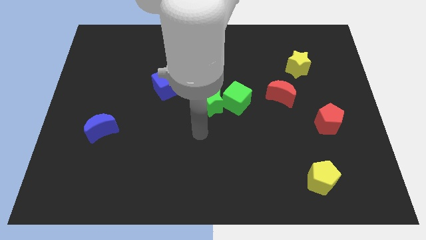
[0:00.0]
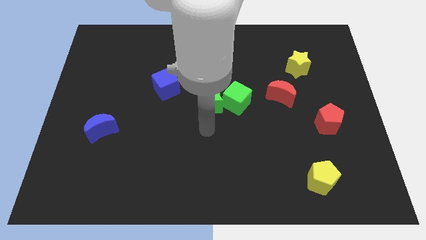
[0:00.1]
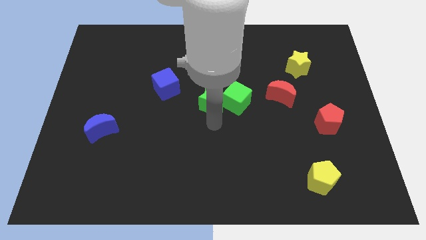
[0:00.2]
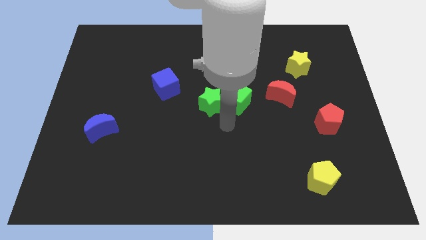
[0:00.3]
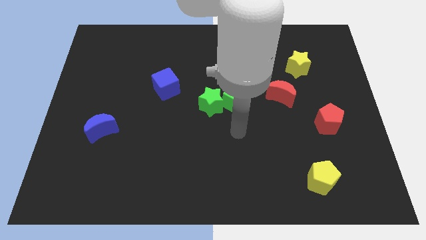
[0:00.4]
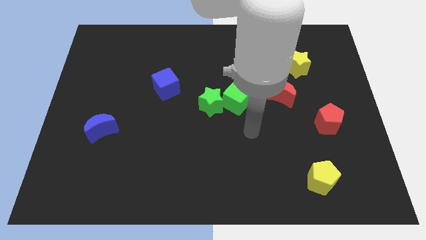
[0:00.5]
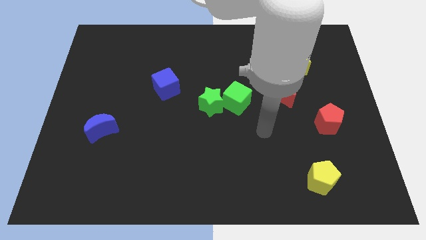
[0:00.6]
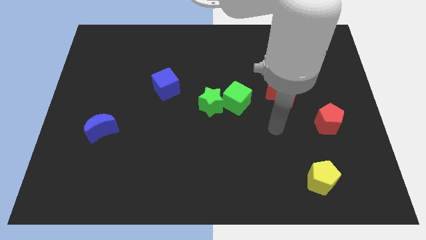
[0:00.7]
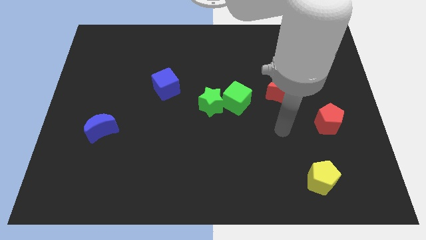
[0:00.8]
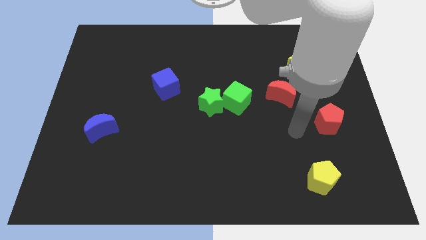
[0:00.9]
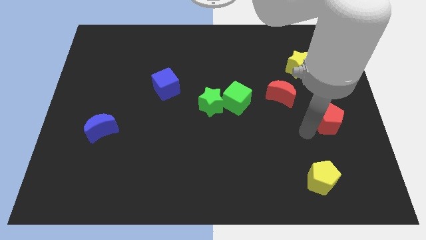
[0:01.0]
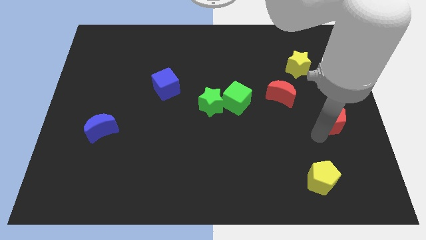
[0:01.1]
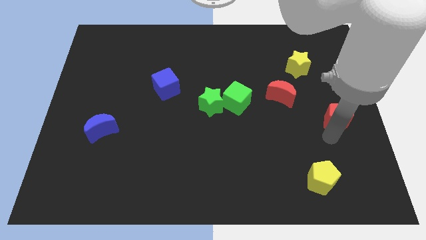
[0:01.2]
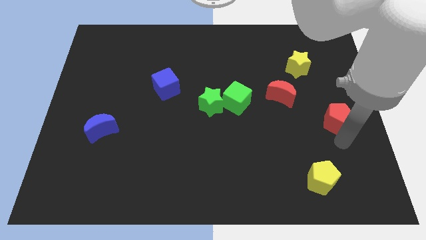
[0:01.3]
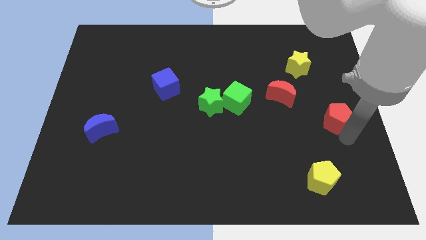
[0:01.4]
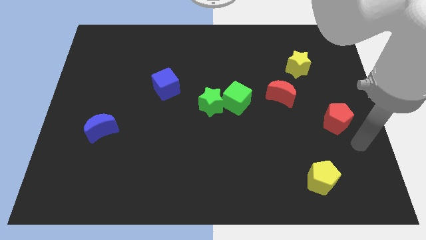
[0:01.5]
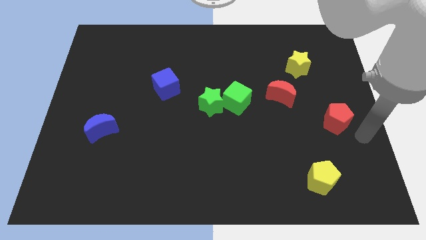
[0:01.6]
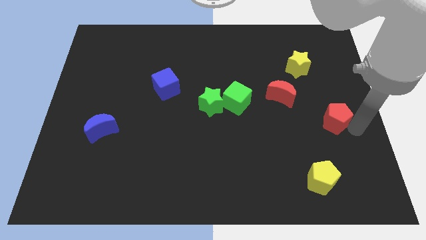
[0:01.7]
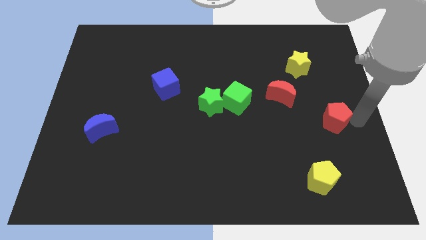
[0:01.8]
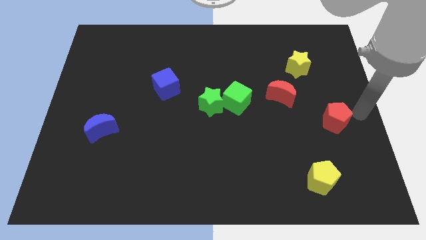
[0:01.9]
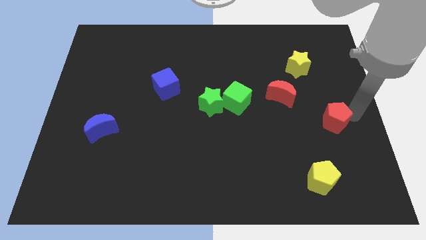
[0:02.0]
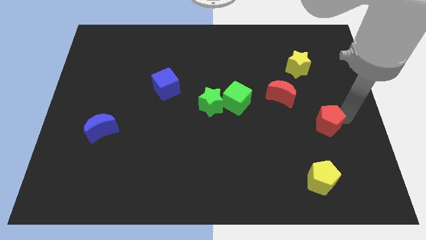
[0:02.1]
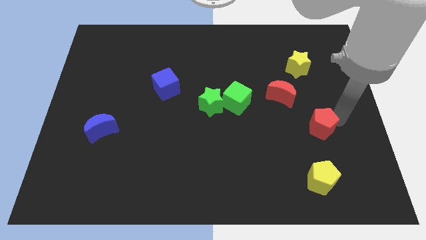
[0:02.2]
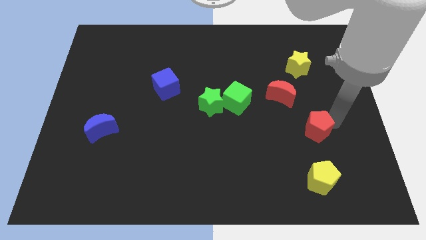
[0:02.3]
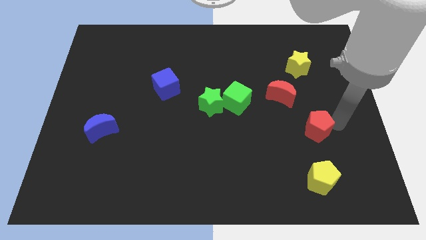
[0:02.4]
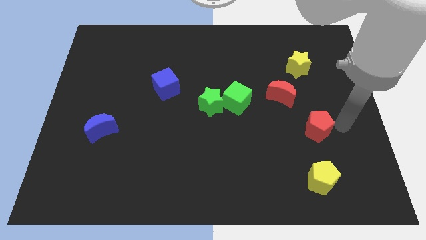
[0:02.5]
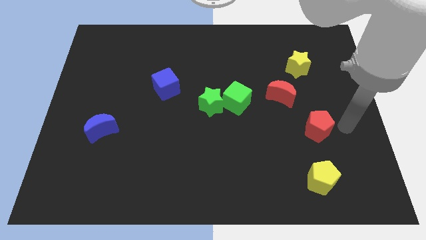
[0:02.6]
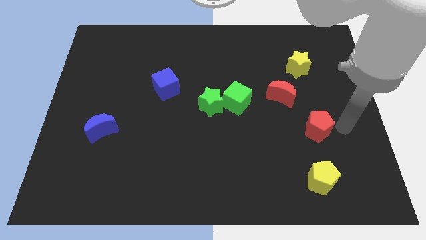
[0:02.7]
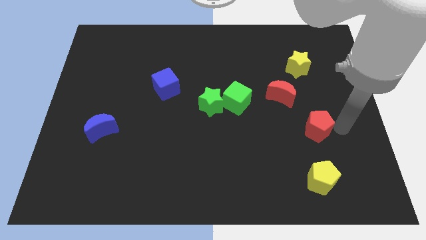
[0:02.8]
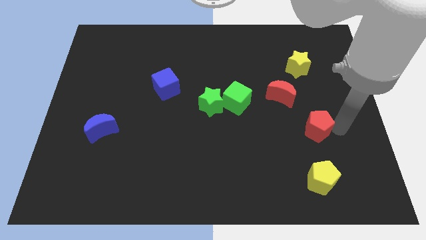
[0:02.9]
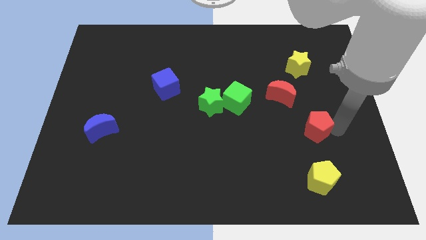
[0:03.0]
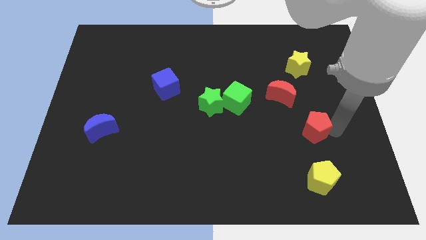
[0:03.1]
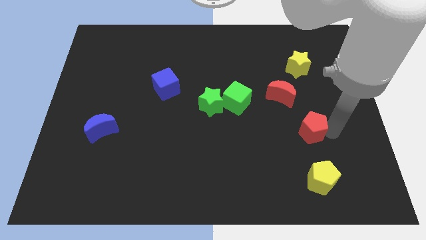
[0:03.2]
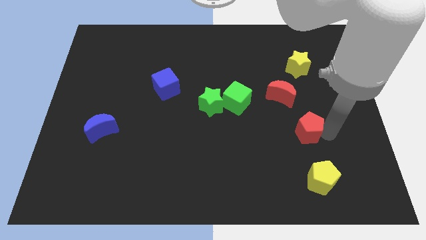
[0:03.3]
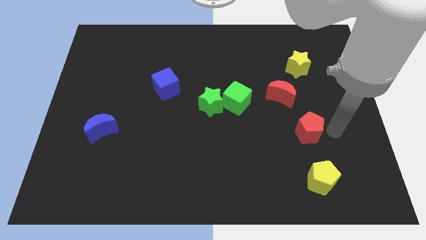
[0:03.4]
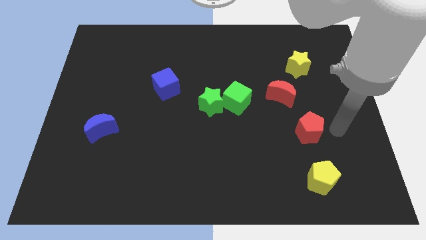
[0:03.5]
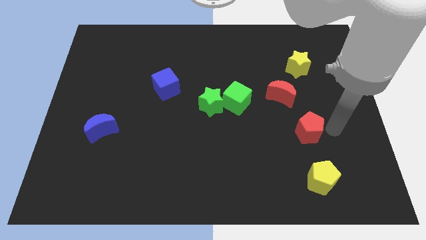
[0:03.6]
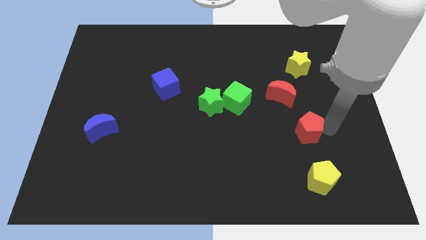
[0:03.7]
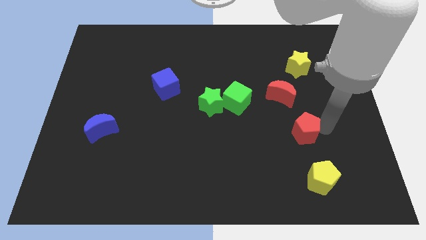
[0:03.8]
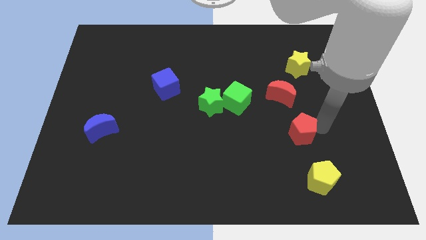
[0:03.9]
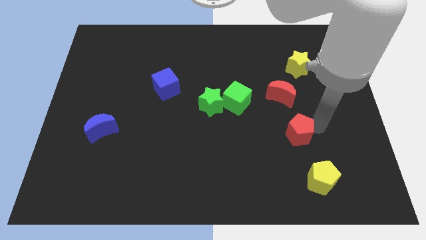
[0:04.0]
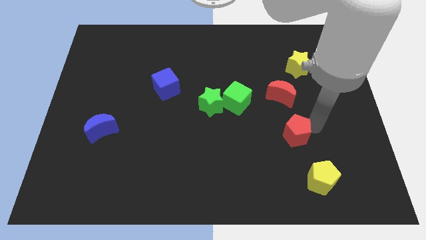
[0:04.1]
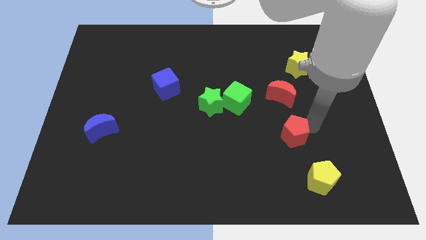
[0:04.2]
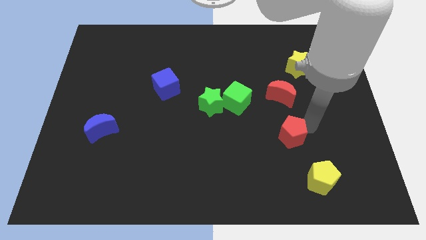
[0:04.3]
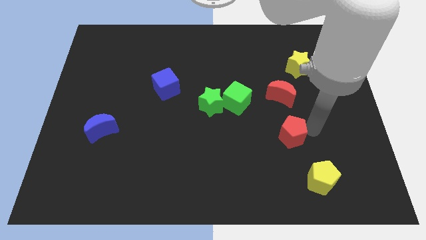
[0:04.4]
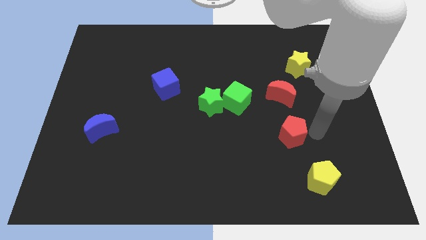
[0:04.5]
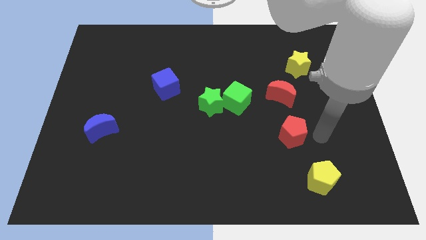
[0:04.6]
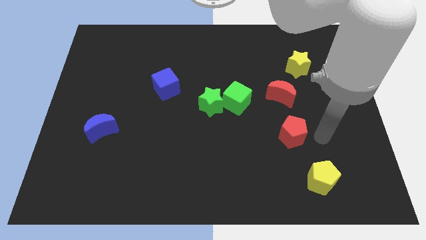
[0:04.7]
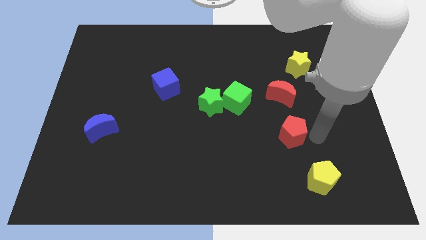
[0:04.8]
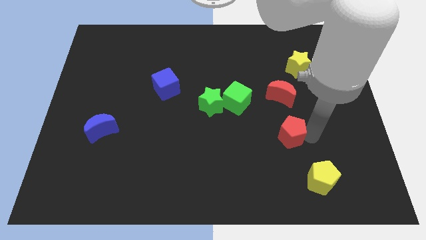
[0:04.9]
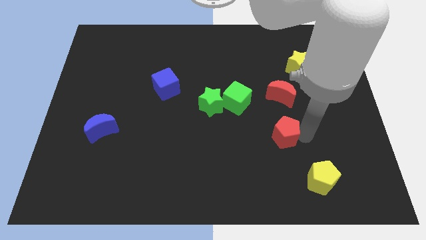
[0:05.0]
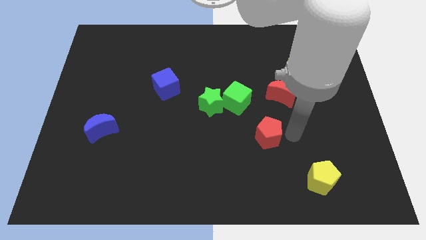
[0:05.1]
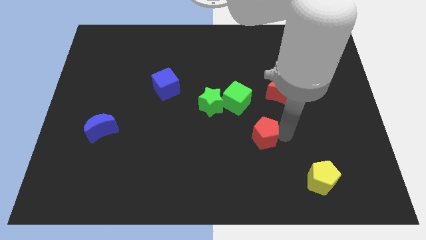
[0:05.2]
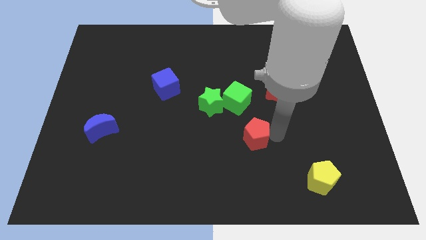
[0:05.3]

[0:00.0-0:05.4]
put the red pentagon below the green cube

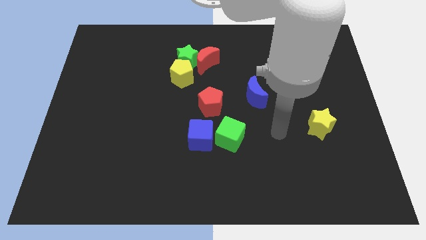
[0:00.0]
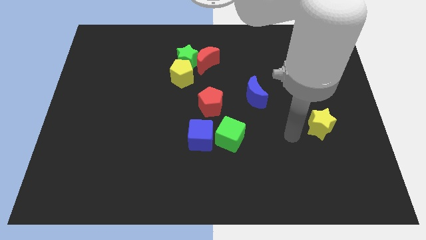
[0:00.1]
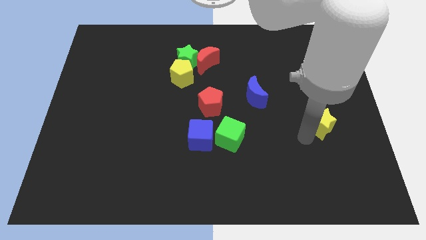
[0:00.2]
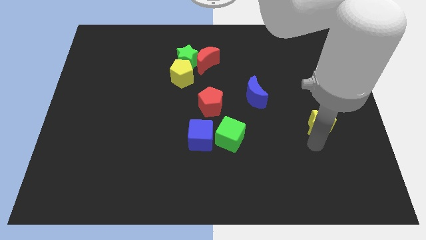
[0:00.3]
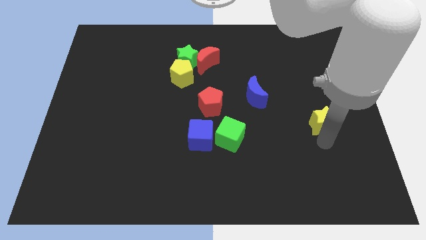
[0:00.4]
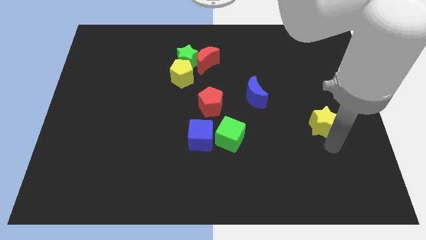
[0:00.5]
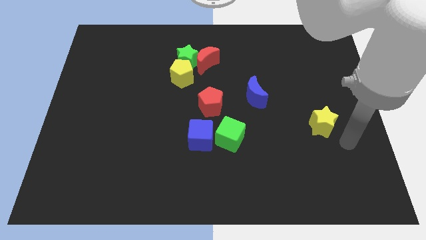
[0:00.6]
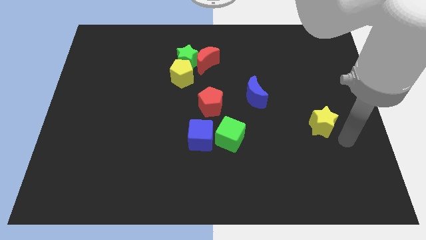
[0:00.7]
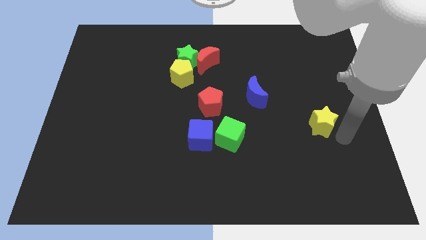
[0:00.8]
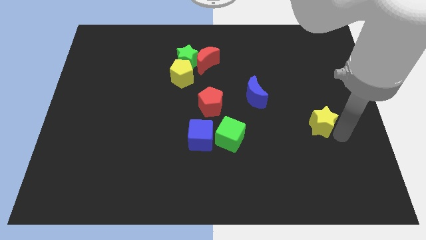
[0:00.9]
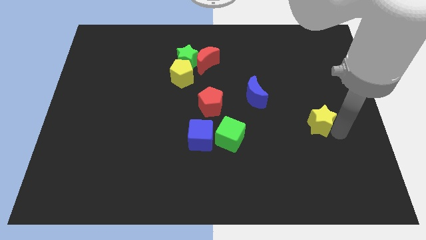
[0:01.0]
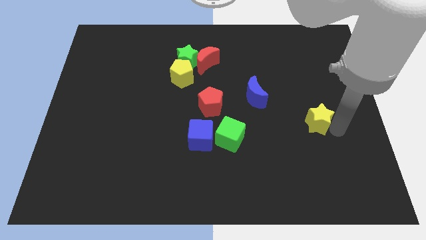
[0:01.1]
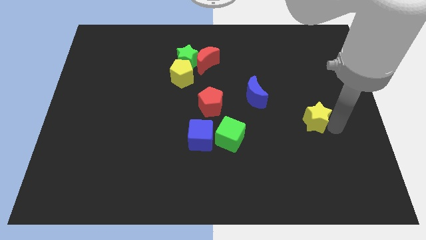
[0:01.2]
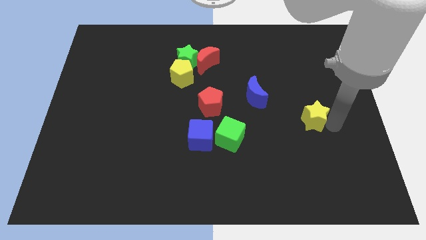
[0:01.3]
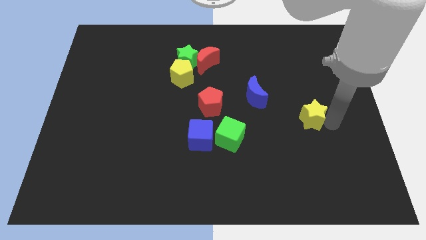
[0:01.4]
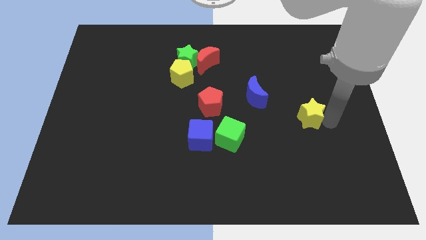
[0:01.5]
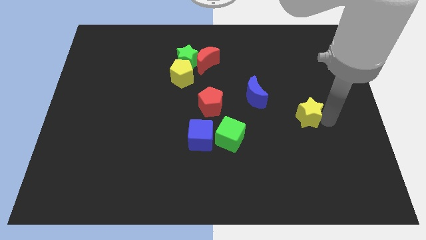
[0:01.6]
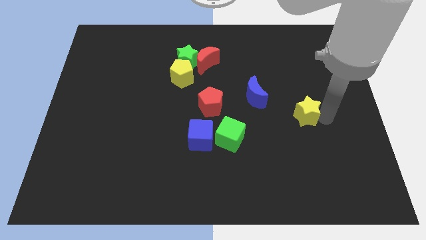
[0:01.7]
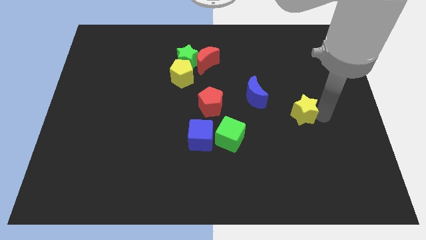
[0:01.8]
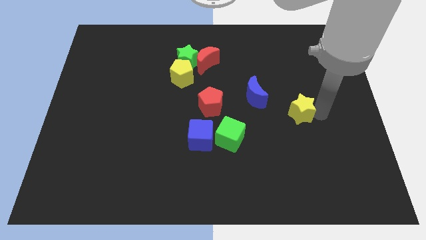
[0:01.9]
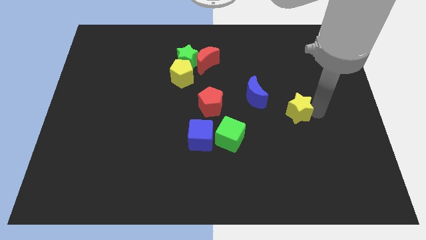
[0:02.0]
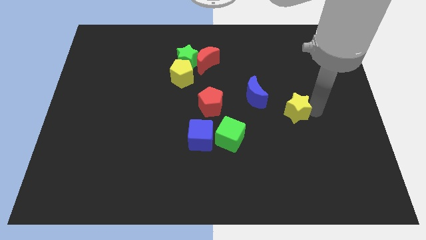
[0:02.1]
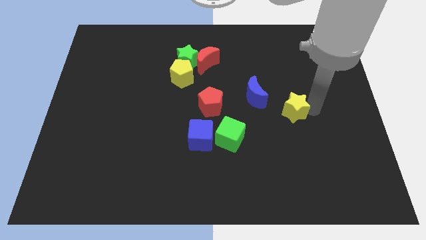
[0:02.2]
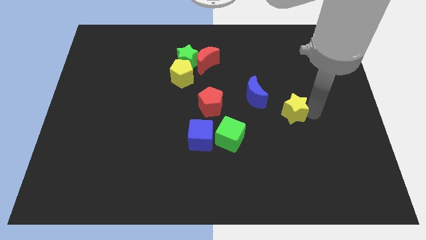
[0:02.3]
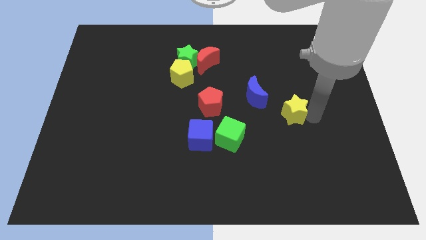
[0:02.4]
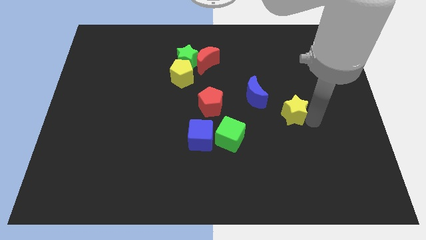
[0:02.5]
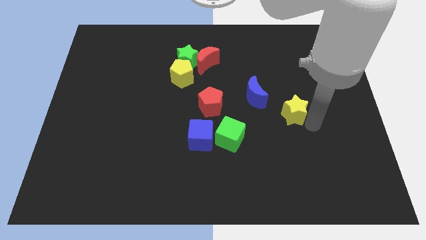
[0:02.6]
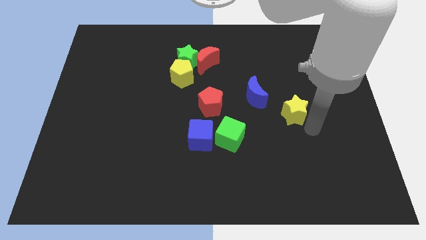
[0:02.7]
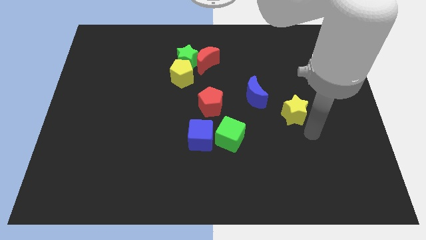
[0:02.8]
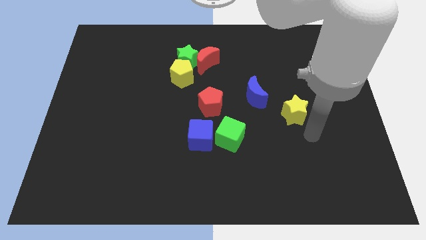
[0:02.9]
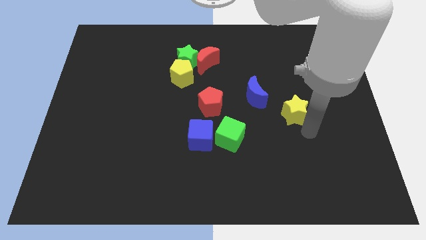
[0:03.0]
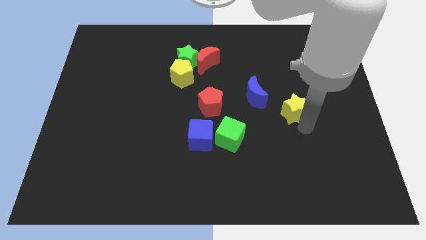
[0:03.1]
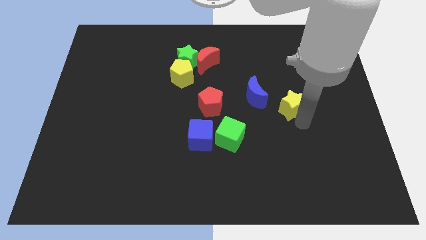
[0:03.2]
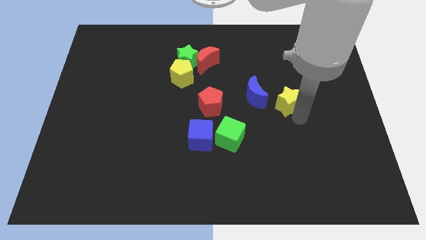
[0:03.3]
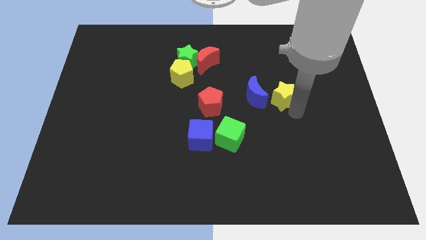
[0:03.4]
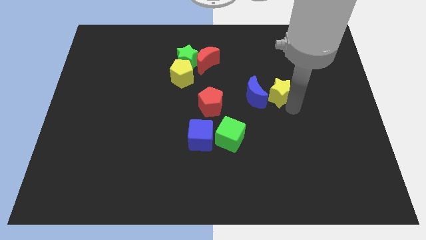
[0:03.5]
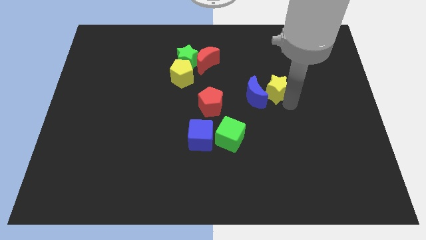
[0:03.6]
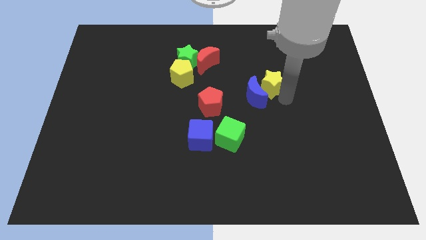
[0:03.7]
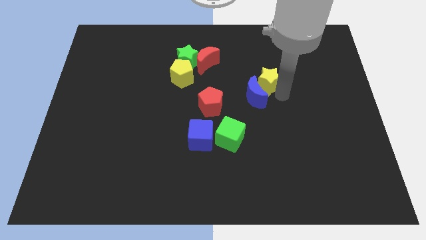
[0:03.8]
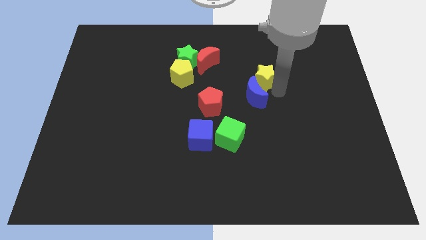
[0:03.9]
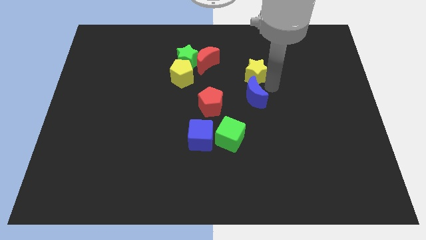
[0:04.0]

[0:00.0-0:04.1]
put the yellow star just right of the red moon
